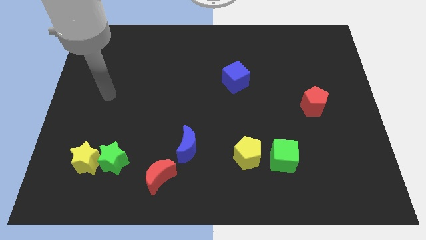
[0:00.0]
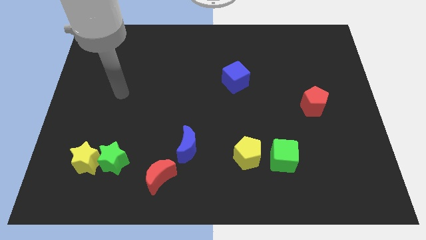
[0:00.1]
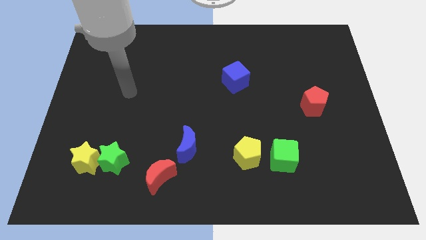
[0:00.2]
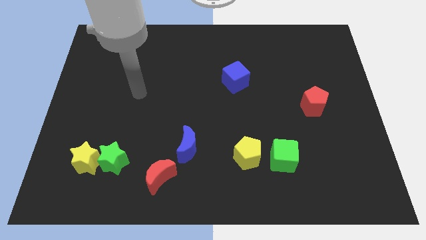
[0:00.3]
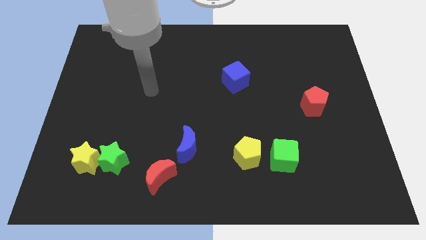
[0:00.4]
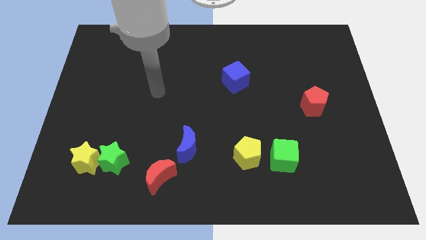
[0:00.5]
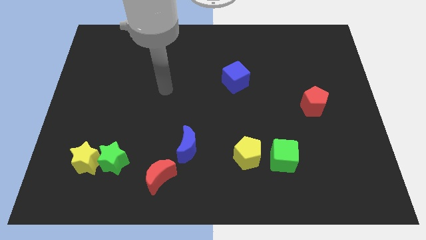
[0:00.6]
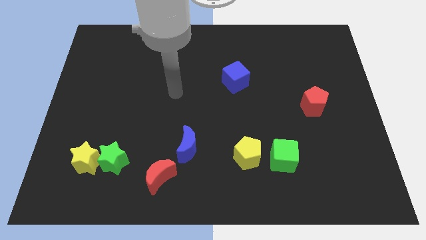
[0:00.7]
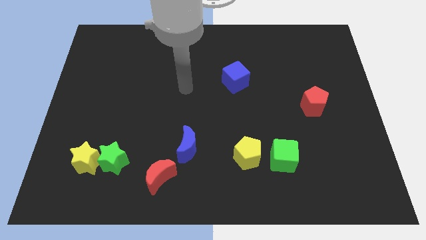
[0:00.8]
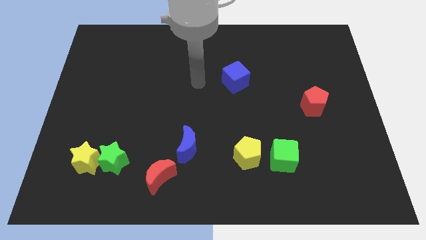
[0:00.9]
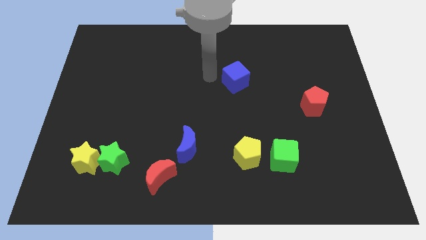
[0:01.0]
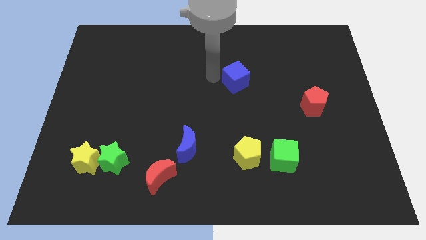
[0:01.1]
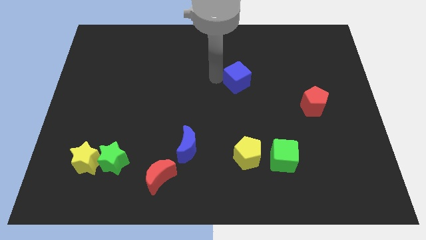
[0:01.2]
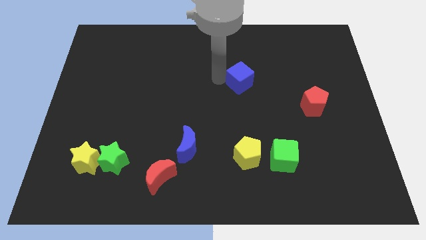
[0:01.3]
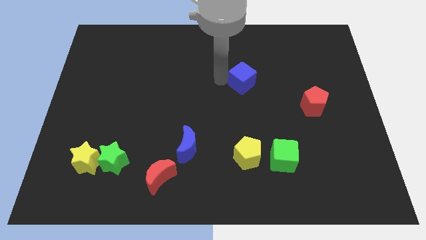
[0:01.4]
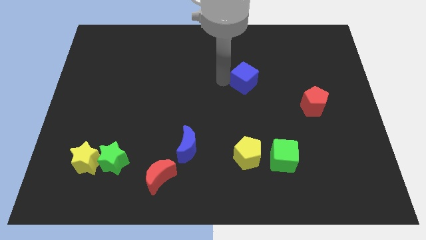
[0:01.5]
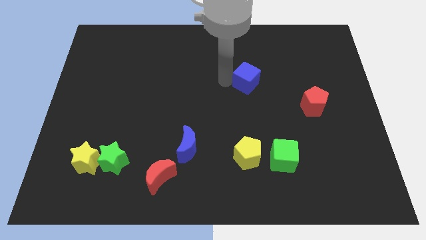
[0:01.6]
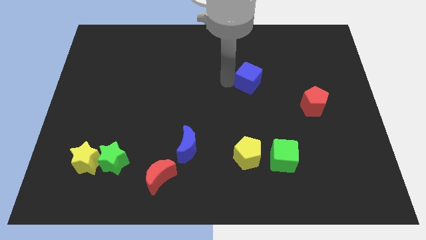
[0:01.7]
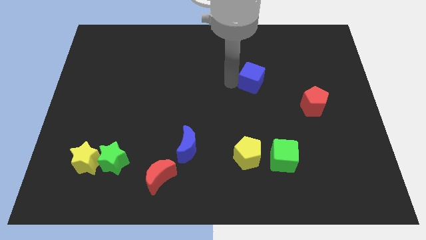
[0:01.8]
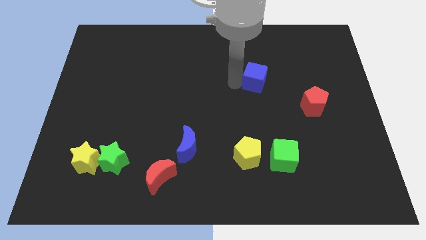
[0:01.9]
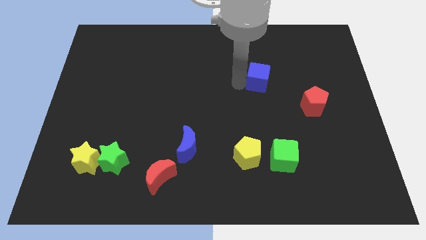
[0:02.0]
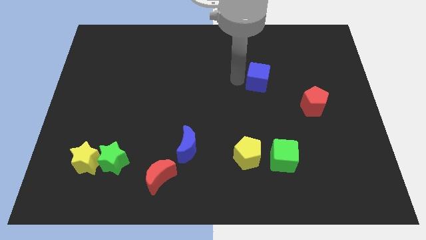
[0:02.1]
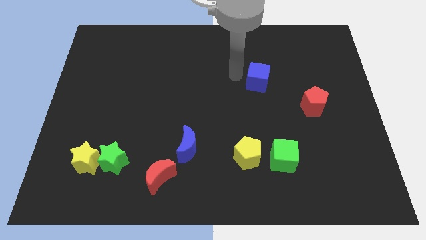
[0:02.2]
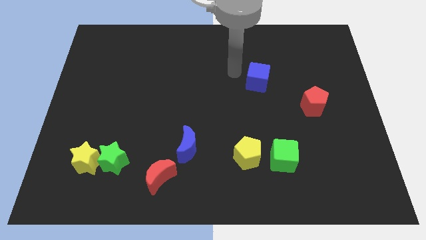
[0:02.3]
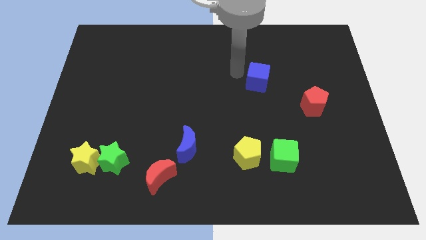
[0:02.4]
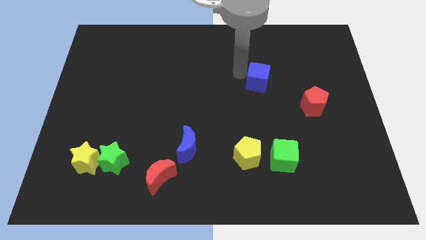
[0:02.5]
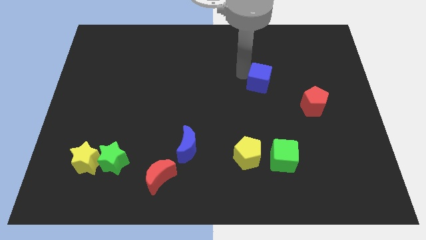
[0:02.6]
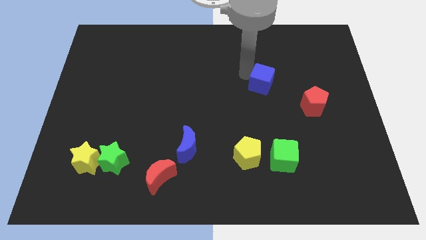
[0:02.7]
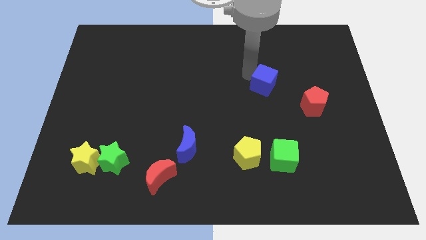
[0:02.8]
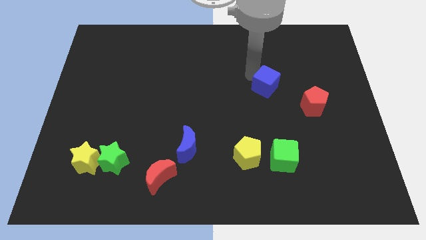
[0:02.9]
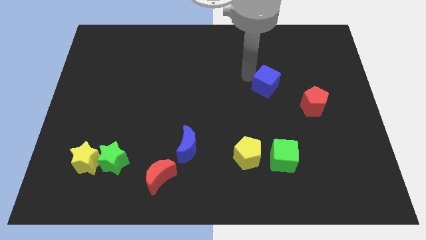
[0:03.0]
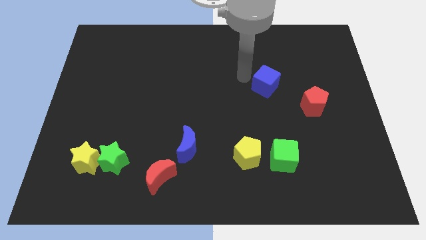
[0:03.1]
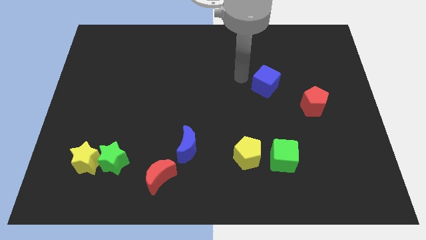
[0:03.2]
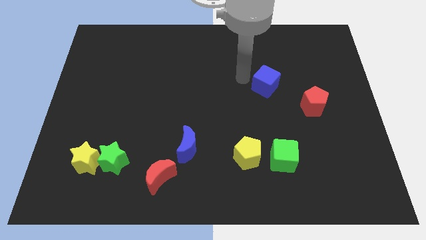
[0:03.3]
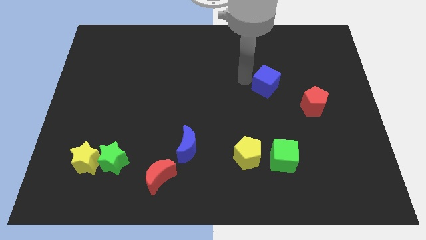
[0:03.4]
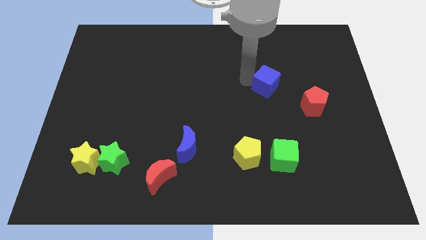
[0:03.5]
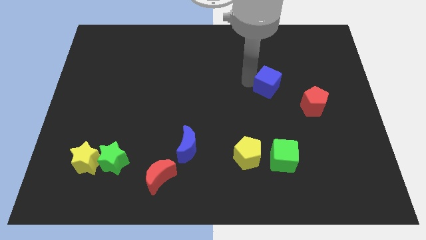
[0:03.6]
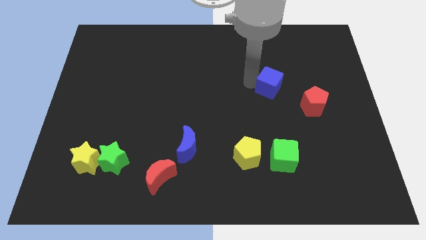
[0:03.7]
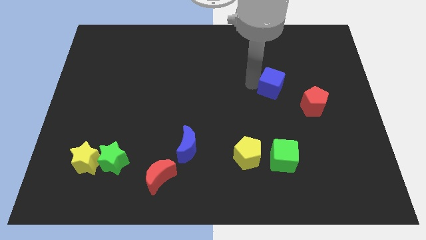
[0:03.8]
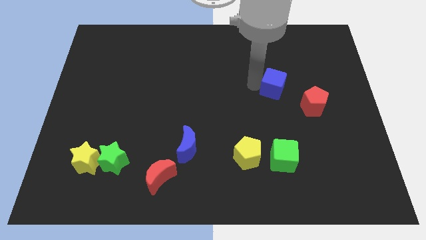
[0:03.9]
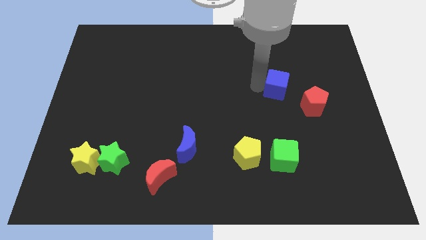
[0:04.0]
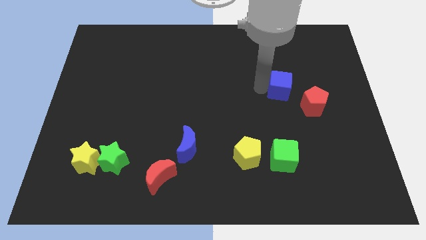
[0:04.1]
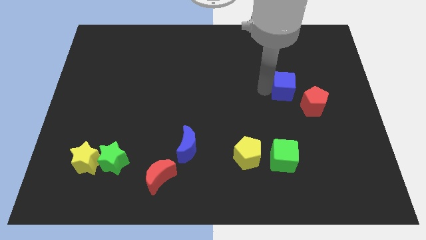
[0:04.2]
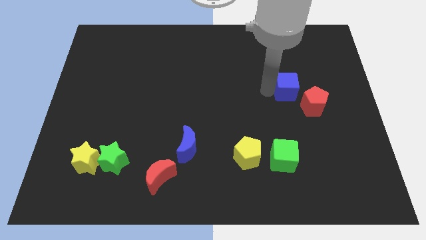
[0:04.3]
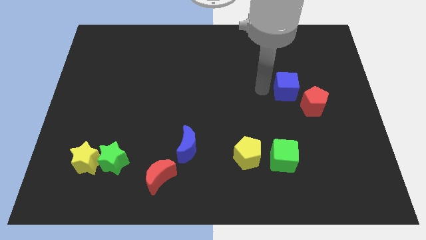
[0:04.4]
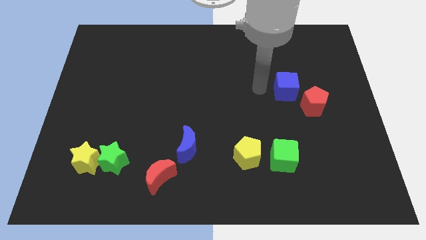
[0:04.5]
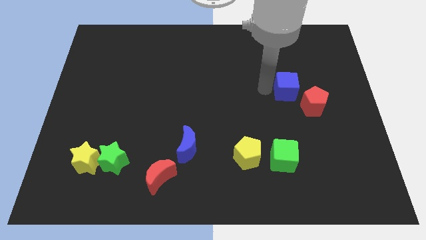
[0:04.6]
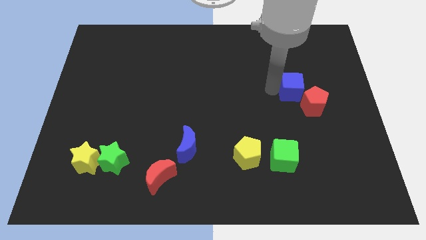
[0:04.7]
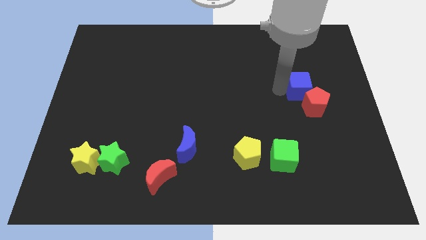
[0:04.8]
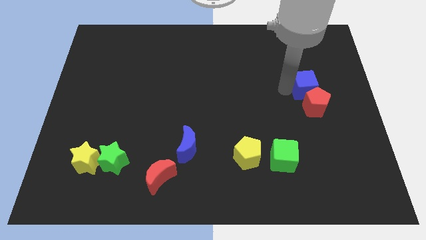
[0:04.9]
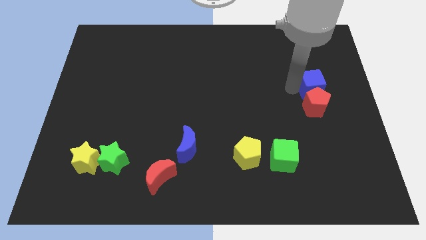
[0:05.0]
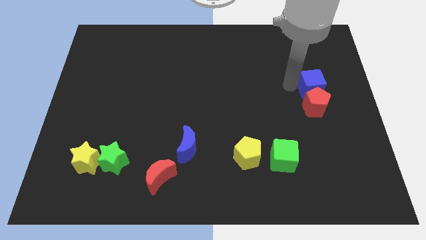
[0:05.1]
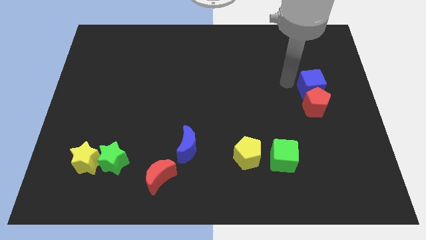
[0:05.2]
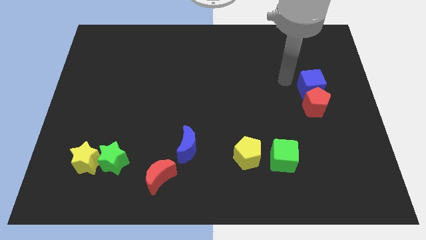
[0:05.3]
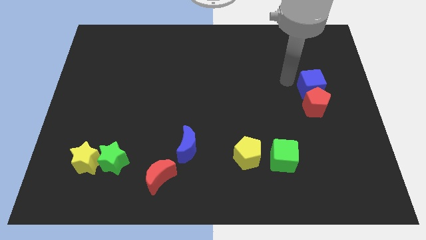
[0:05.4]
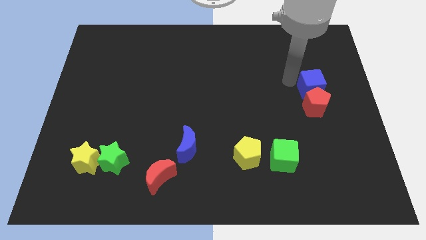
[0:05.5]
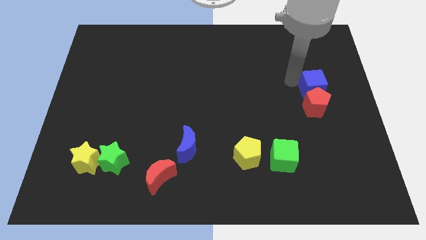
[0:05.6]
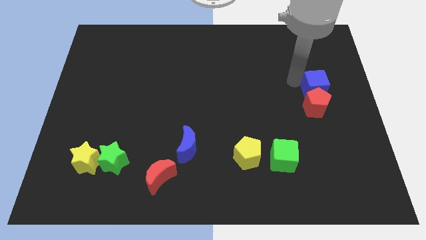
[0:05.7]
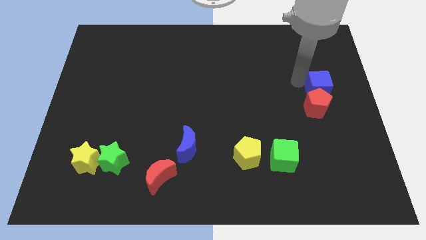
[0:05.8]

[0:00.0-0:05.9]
put the blue cube to the center right
